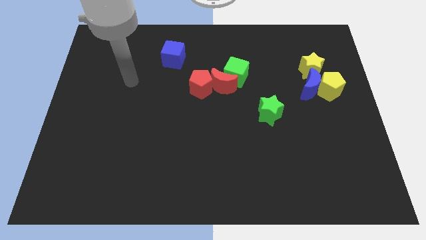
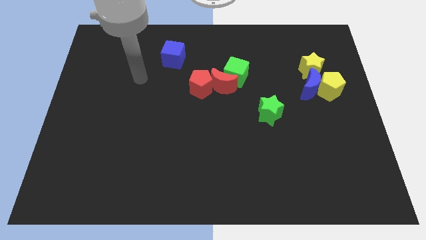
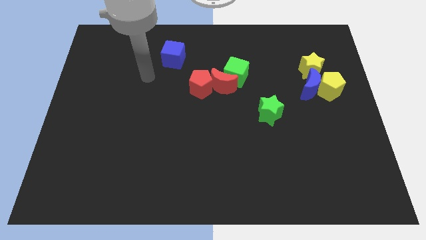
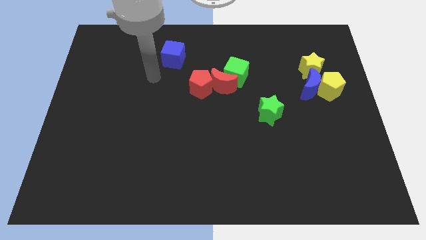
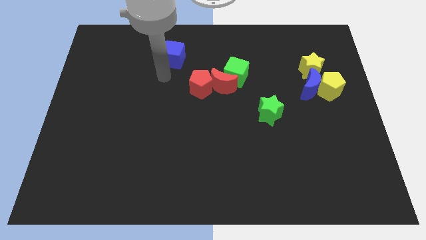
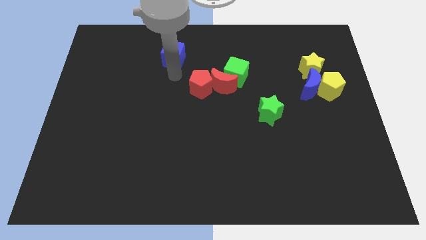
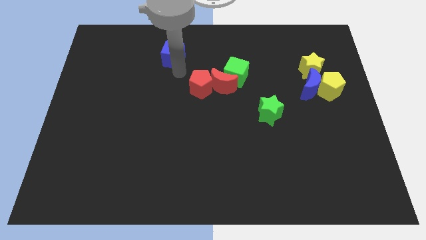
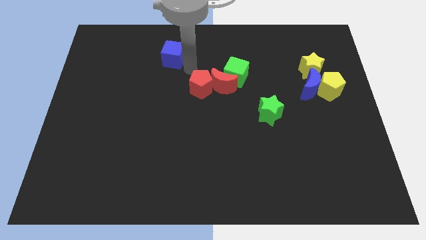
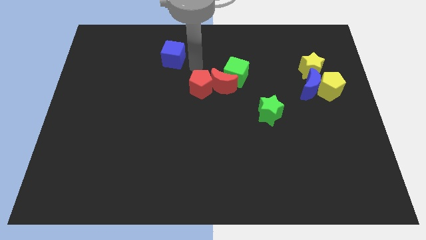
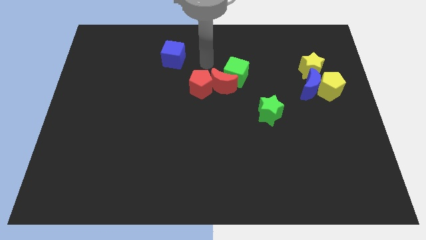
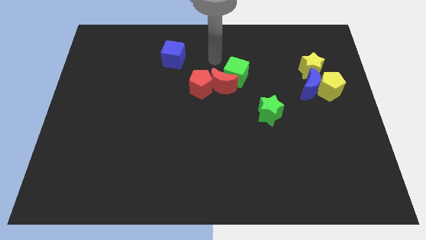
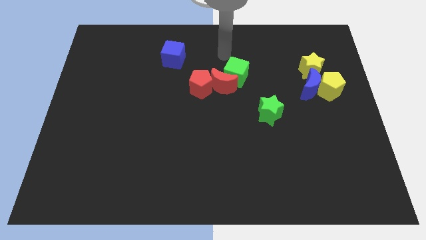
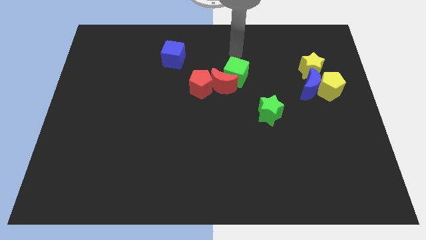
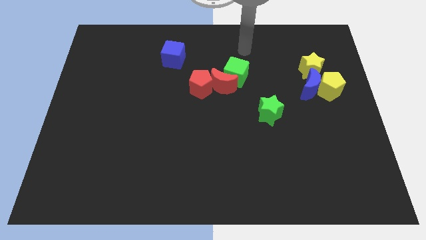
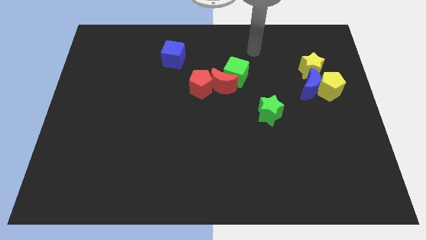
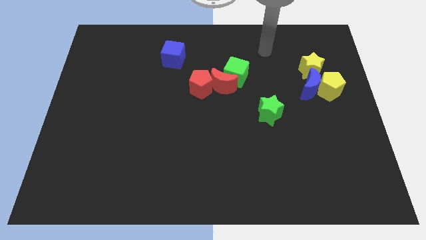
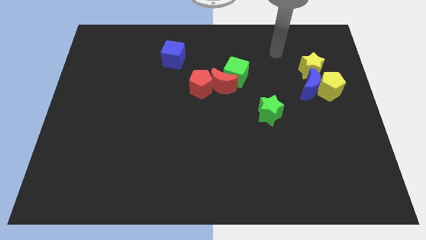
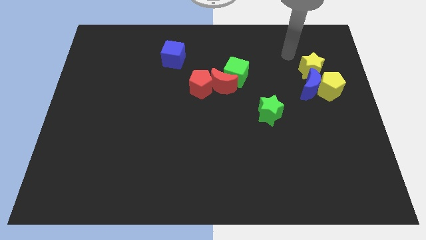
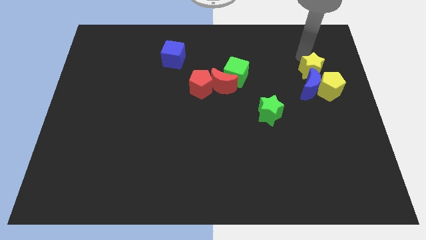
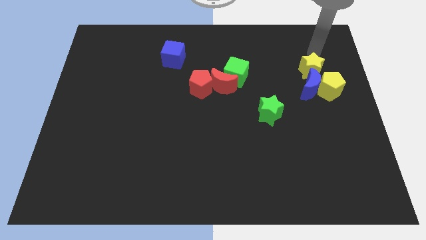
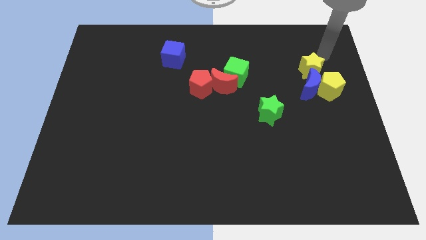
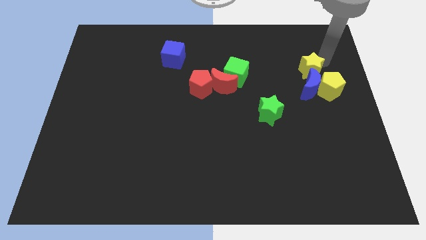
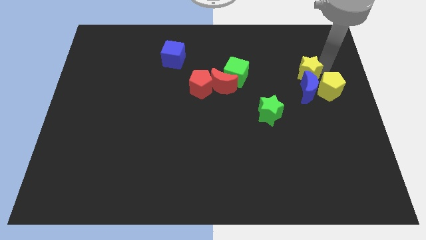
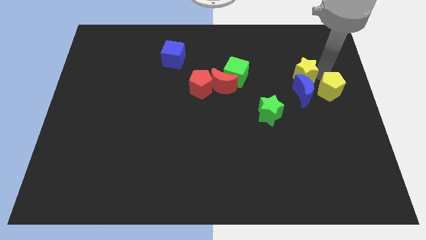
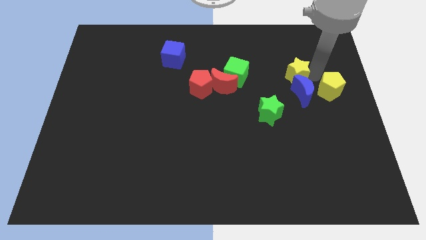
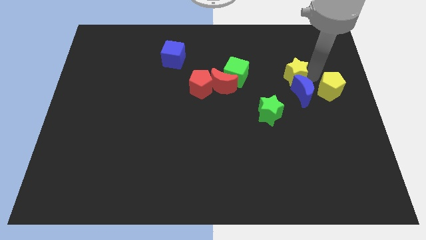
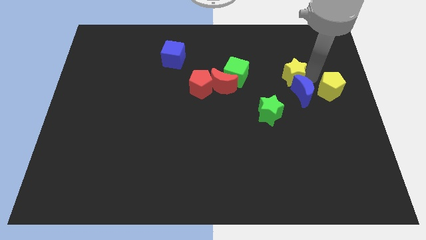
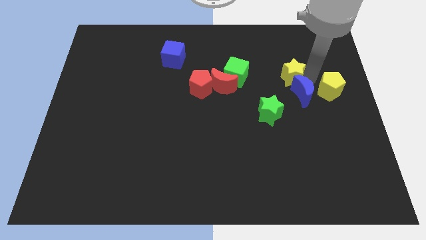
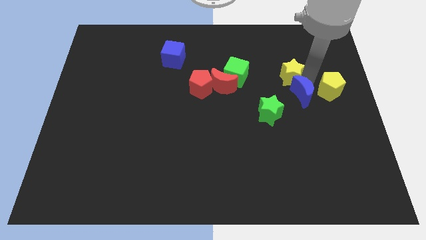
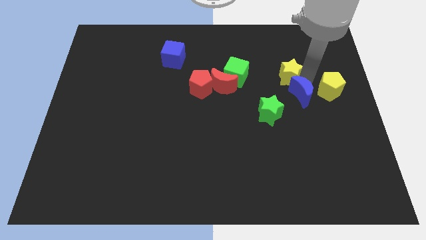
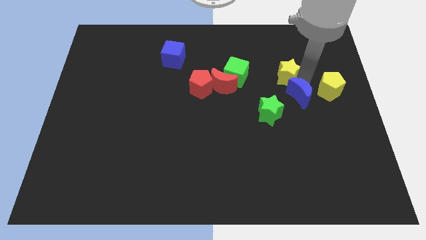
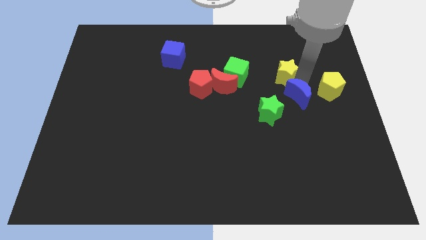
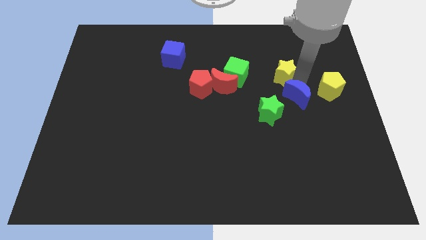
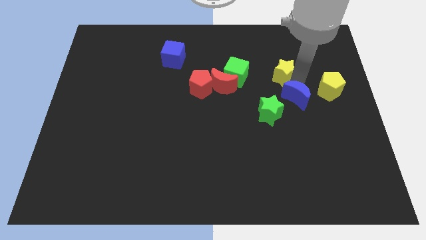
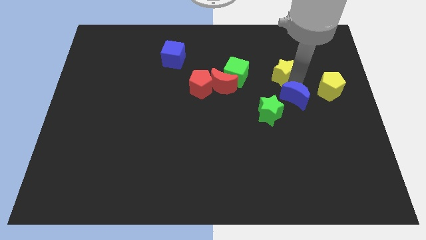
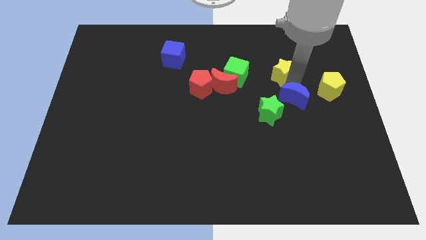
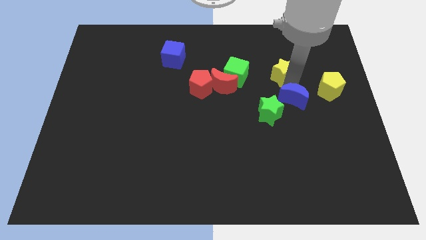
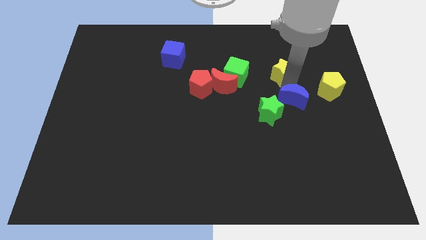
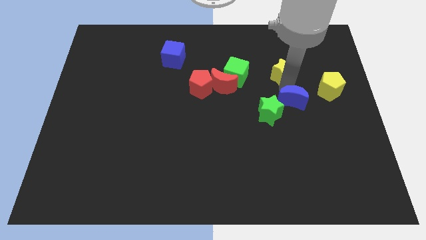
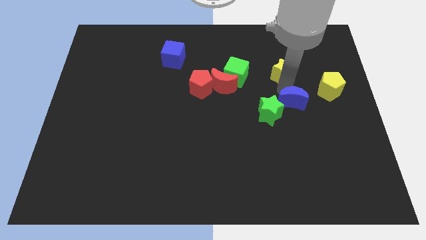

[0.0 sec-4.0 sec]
move the blue moon a little diagonally down and left

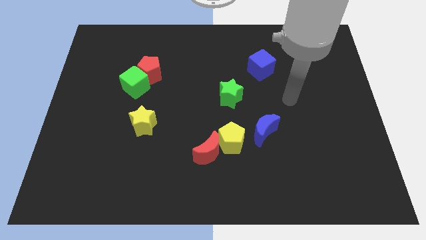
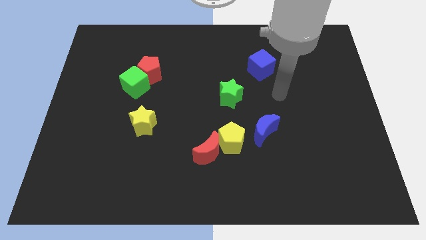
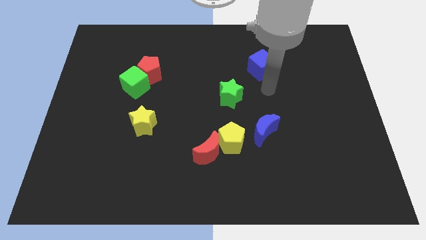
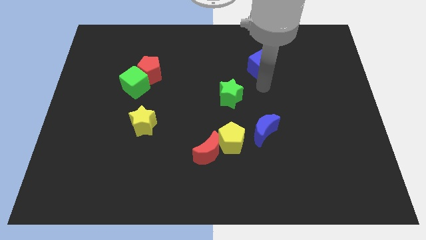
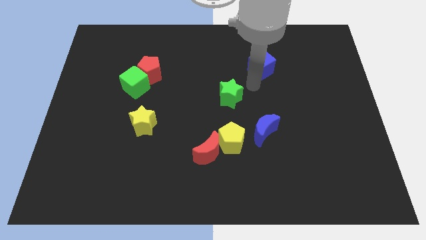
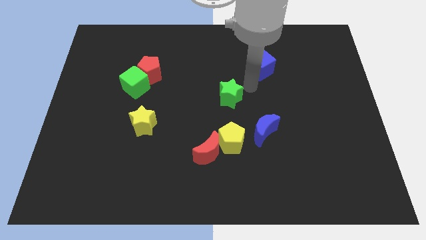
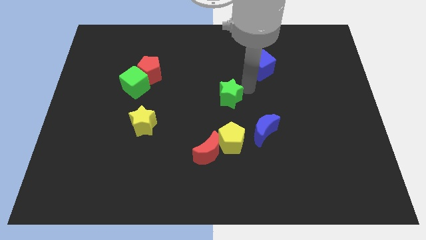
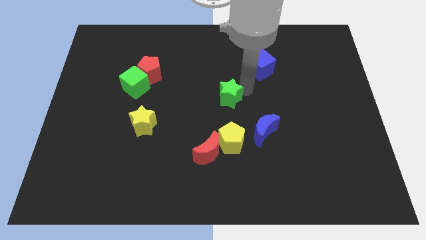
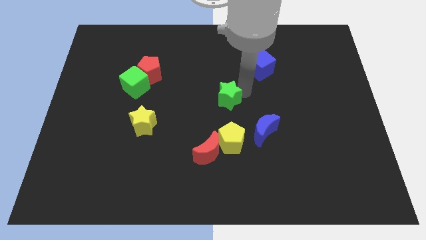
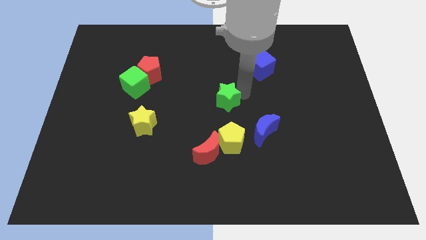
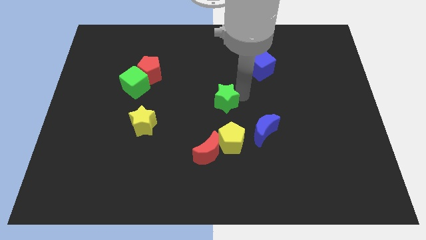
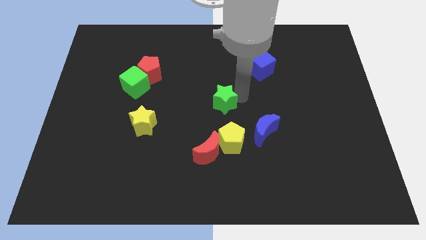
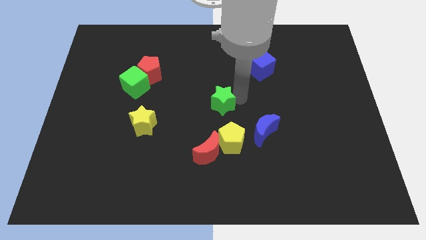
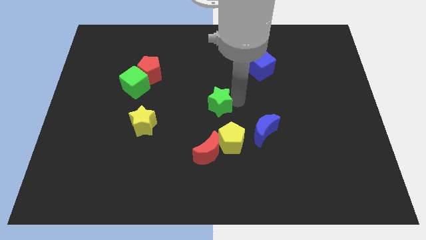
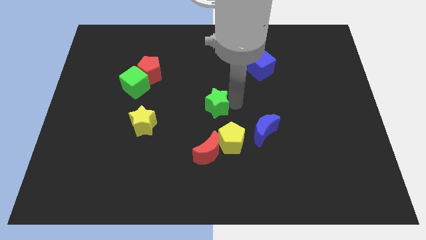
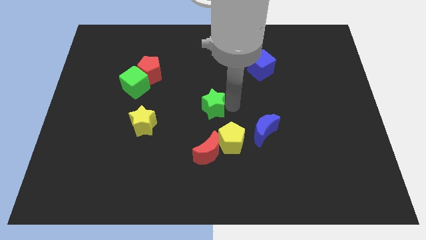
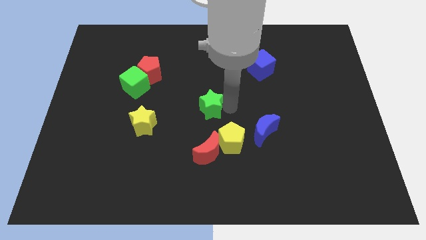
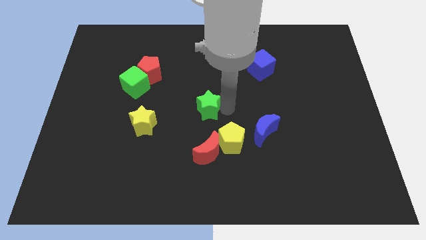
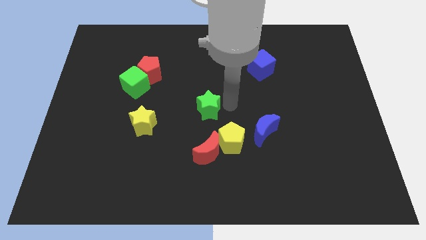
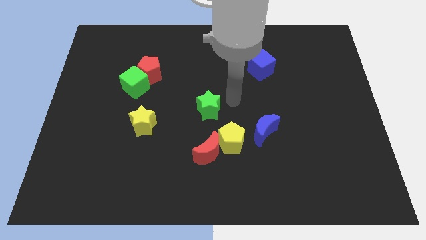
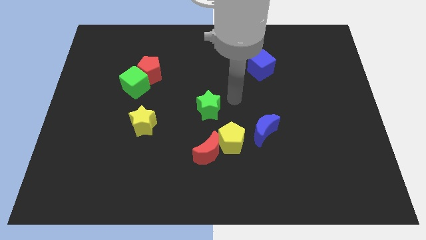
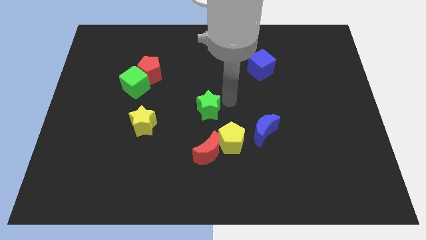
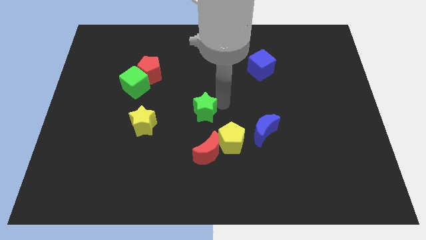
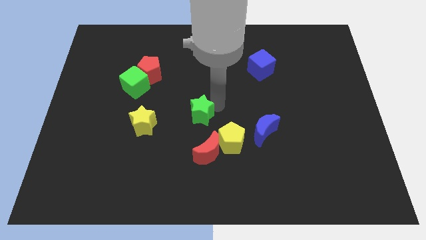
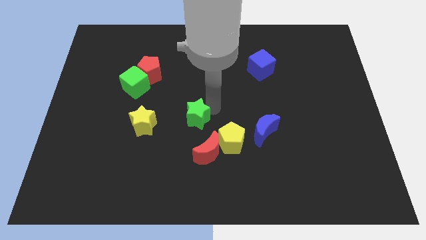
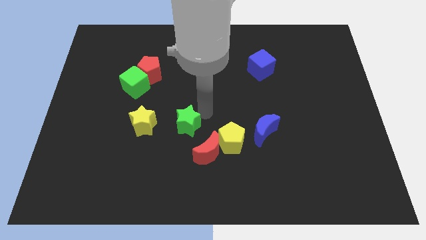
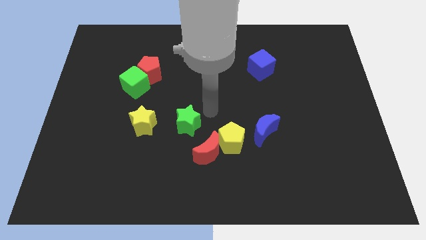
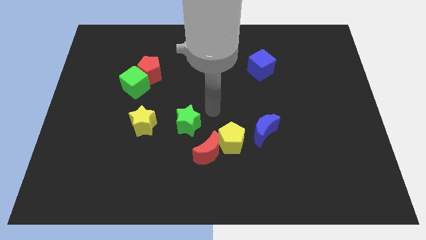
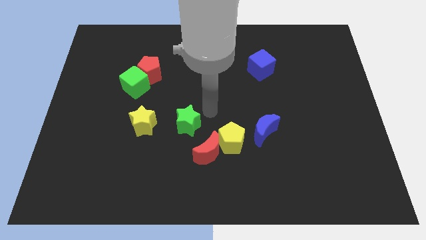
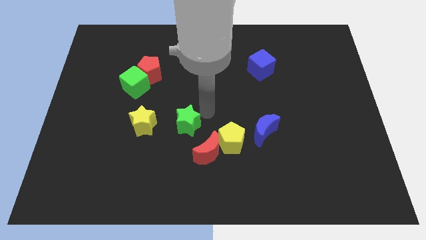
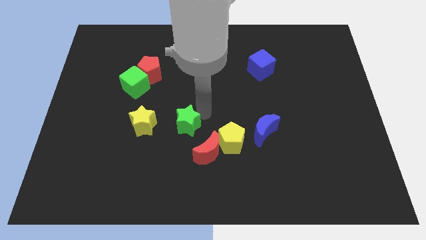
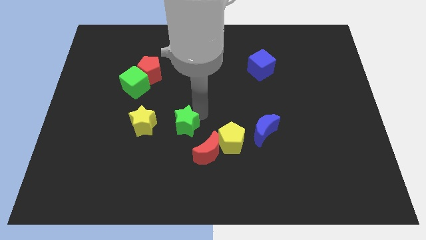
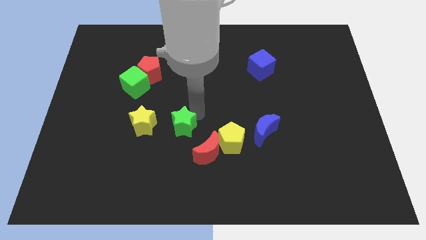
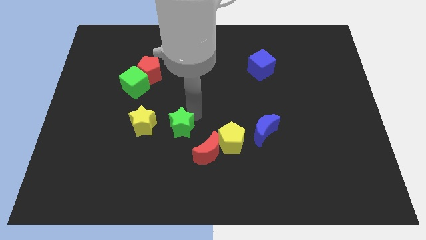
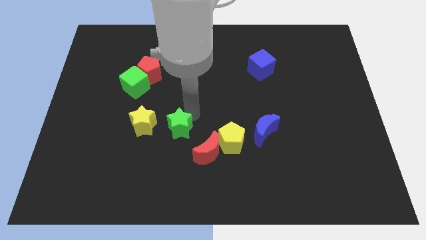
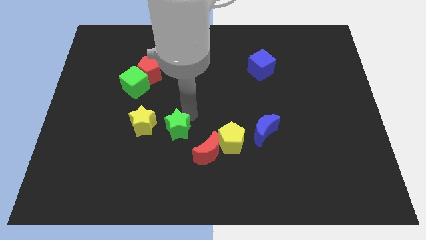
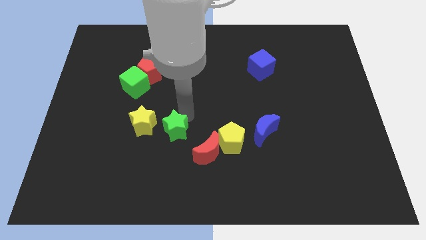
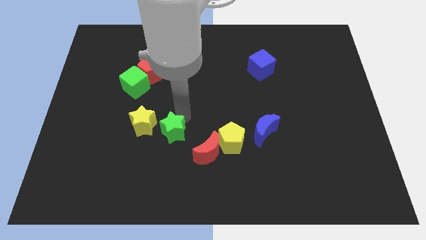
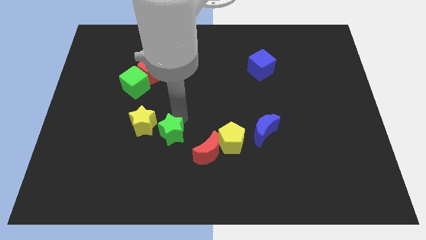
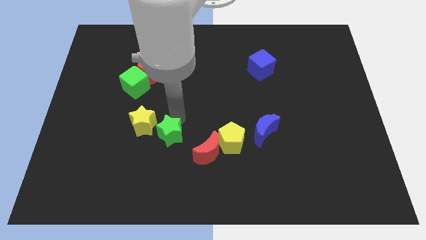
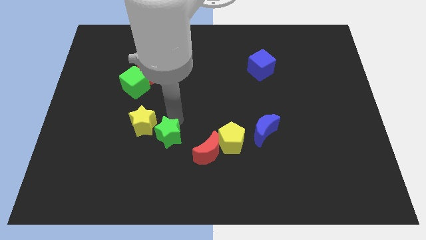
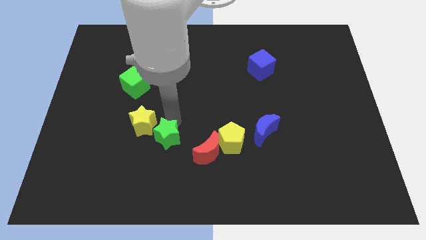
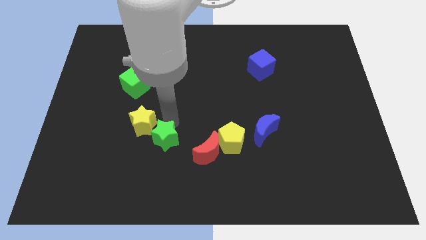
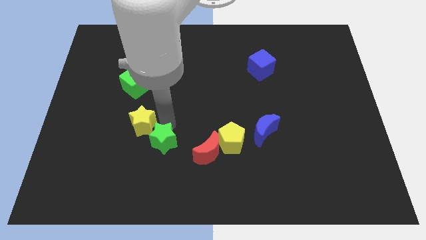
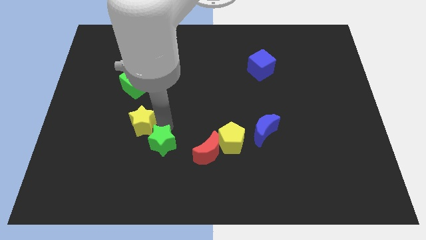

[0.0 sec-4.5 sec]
move the green star down and left diagonally
